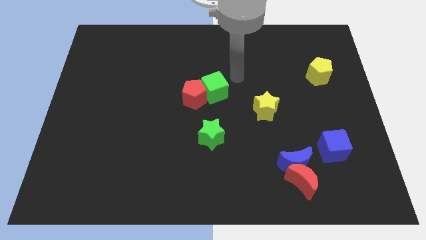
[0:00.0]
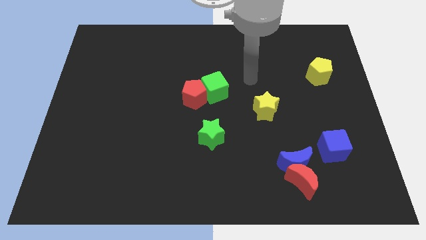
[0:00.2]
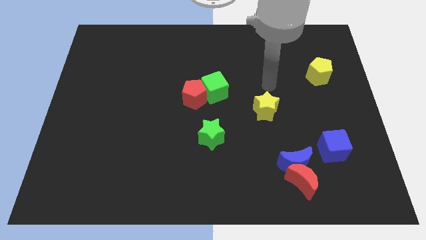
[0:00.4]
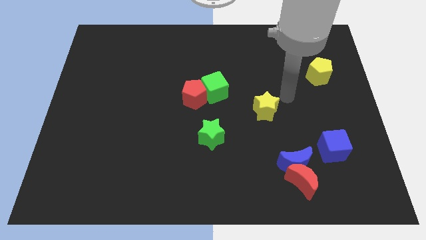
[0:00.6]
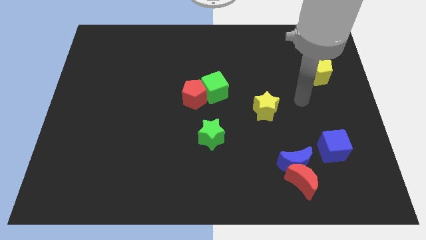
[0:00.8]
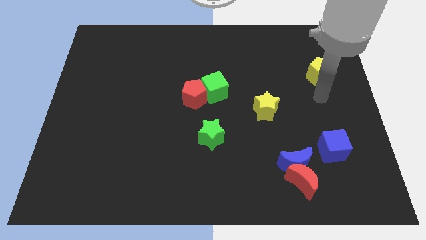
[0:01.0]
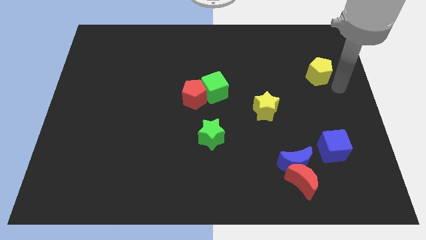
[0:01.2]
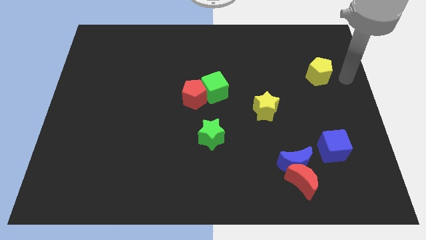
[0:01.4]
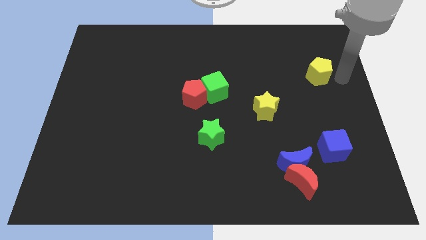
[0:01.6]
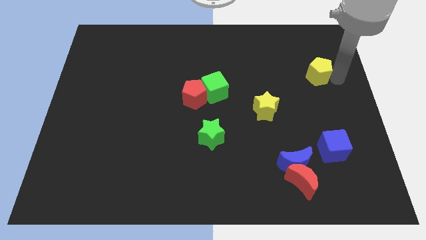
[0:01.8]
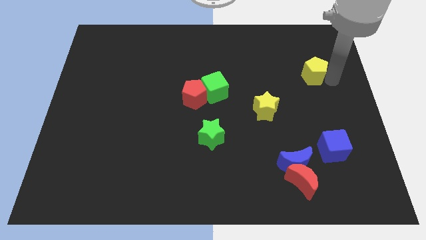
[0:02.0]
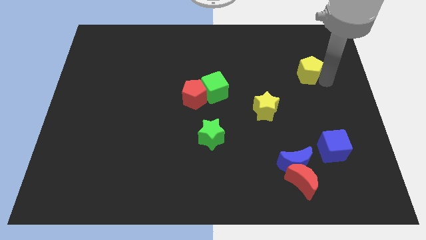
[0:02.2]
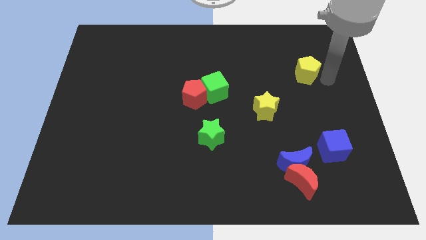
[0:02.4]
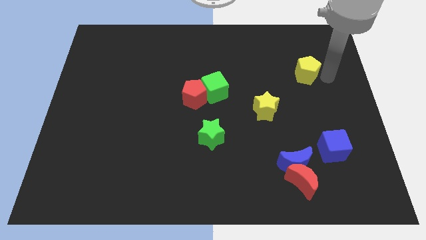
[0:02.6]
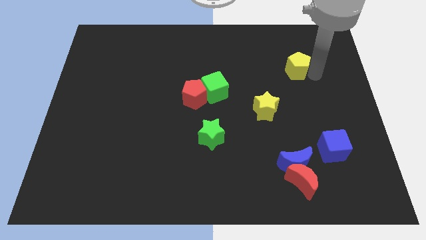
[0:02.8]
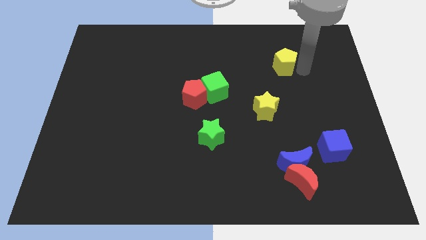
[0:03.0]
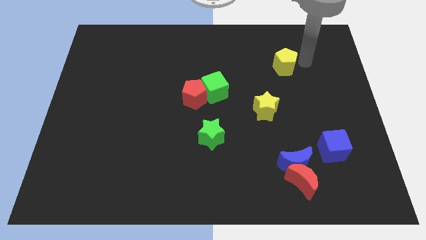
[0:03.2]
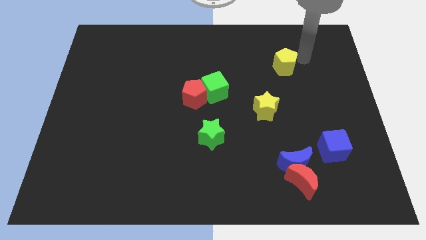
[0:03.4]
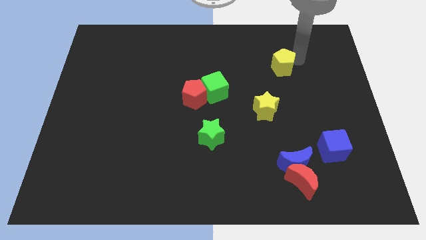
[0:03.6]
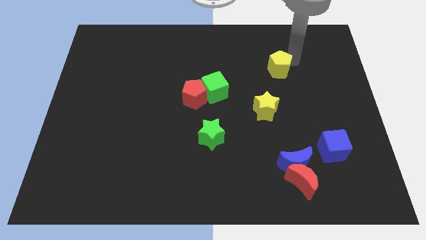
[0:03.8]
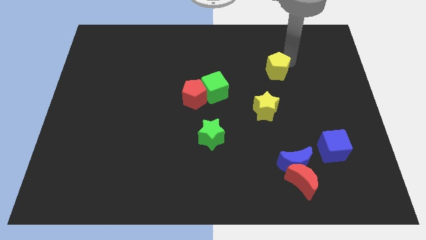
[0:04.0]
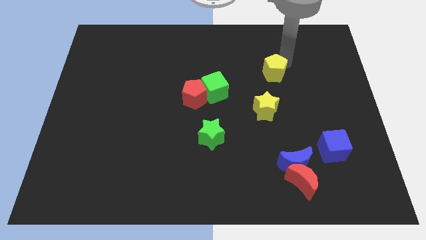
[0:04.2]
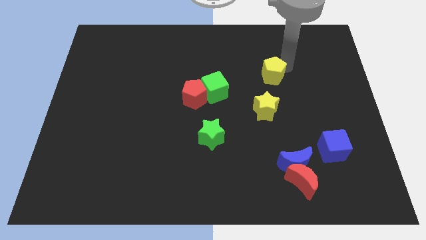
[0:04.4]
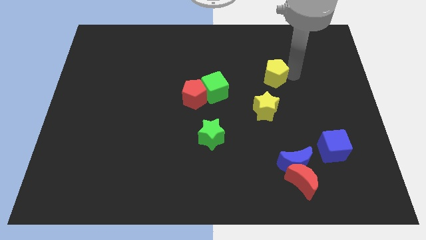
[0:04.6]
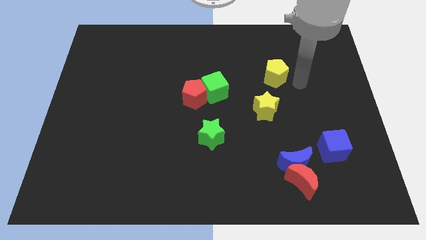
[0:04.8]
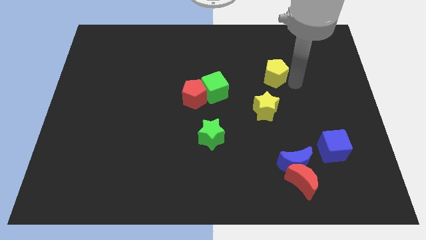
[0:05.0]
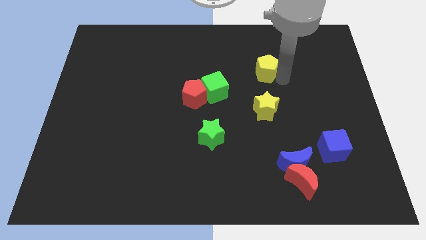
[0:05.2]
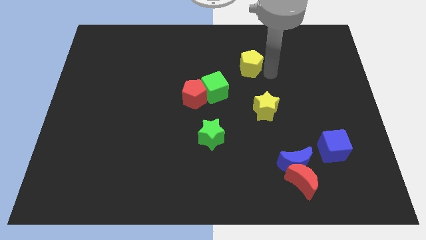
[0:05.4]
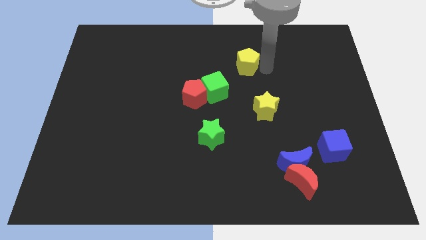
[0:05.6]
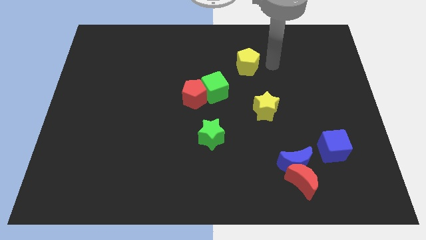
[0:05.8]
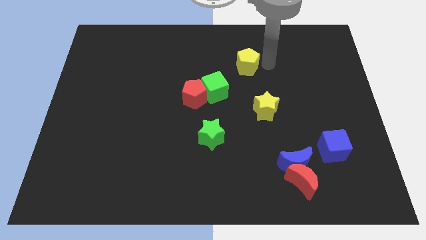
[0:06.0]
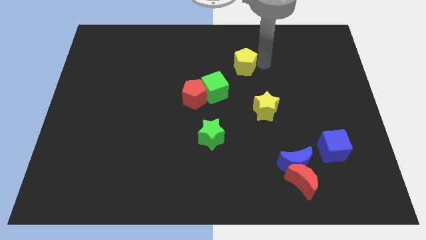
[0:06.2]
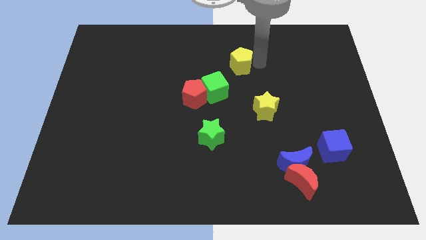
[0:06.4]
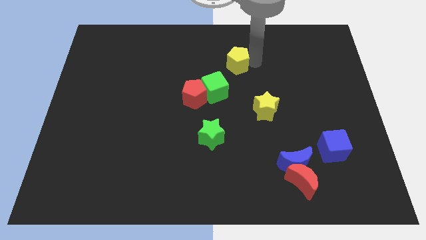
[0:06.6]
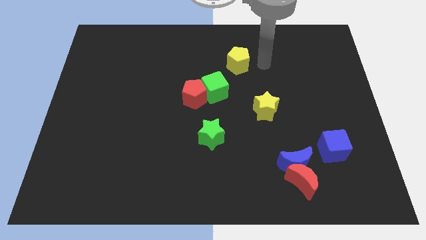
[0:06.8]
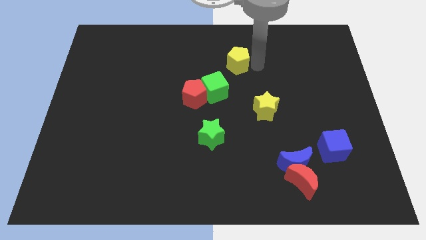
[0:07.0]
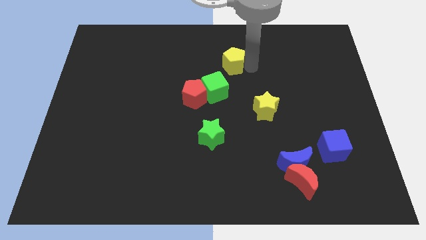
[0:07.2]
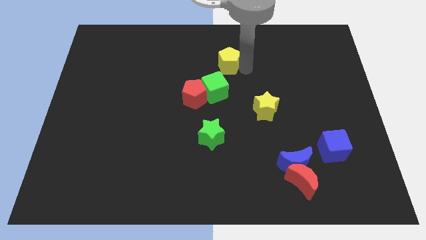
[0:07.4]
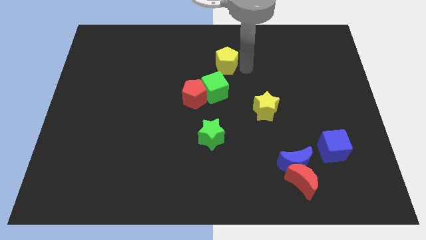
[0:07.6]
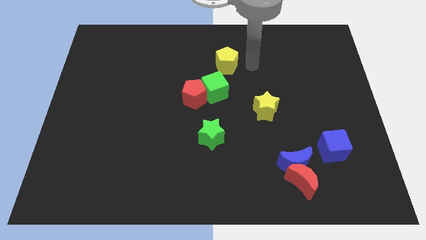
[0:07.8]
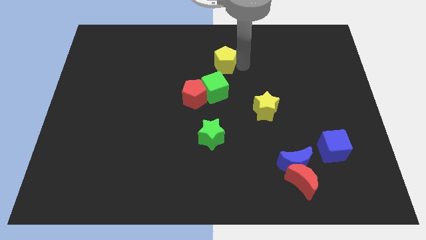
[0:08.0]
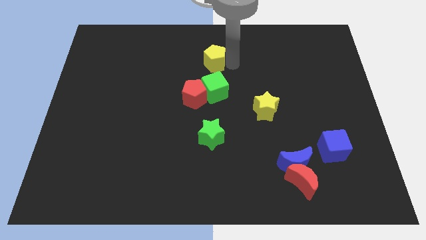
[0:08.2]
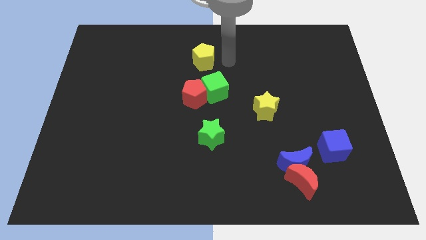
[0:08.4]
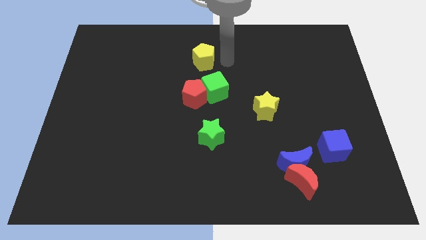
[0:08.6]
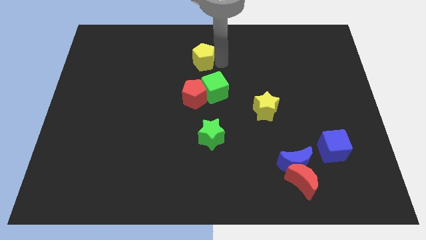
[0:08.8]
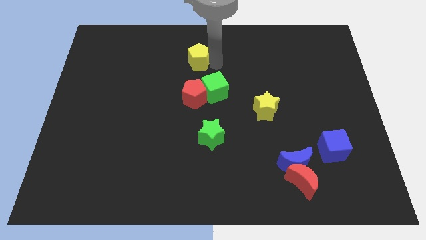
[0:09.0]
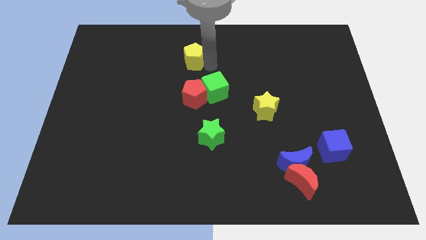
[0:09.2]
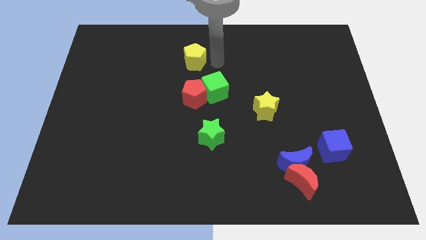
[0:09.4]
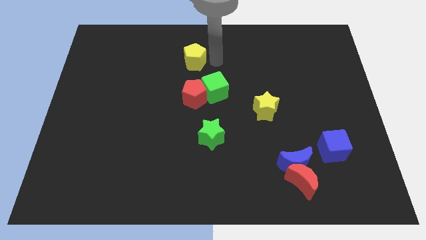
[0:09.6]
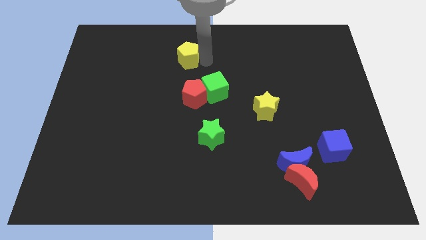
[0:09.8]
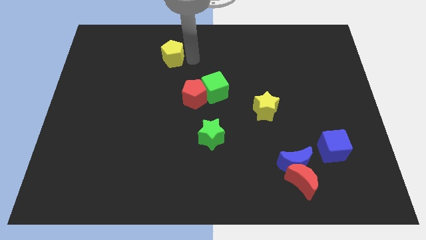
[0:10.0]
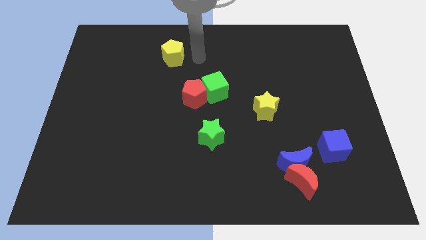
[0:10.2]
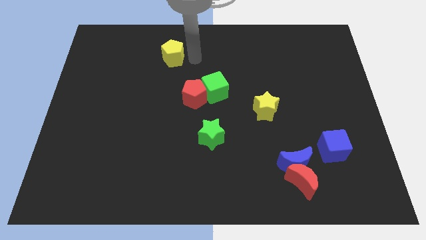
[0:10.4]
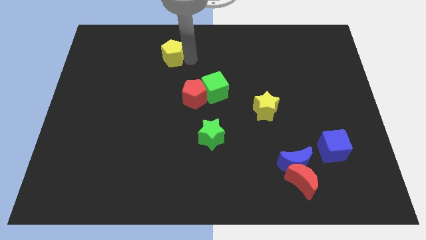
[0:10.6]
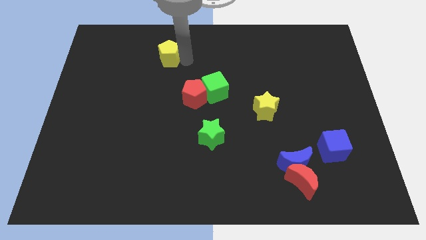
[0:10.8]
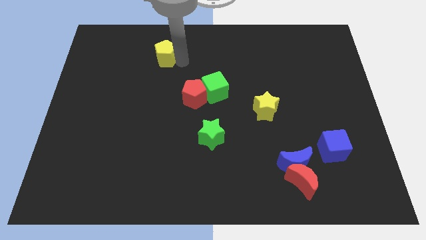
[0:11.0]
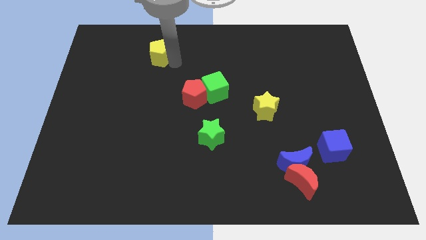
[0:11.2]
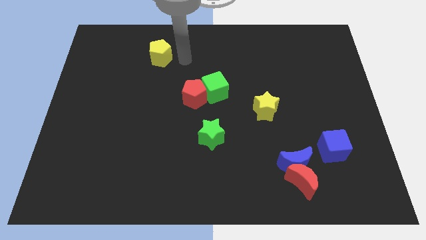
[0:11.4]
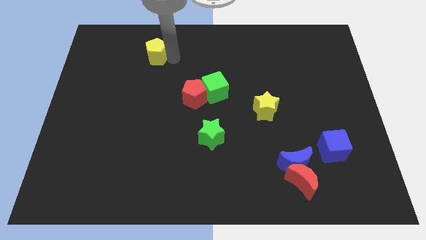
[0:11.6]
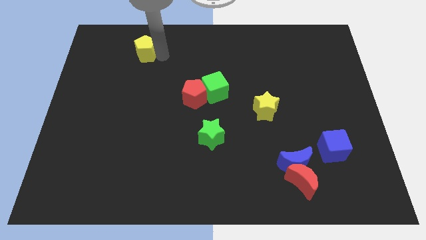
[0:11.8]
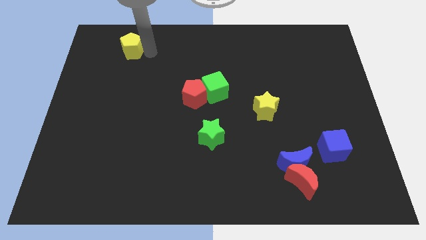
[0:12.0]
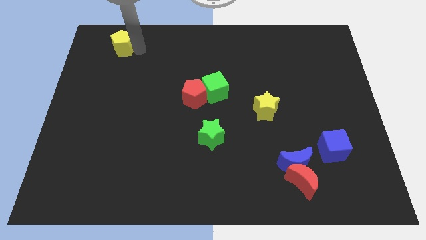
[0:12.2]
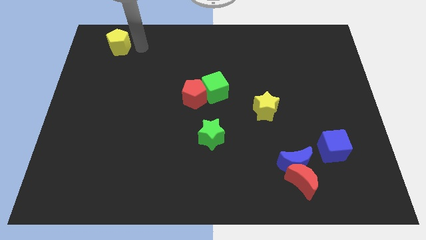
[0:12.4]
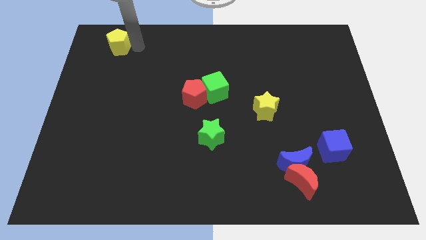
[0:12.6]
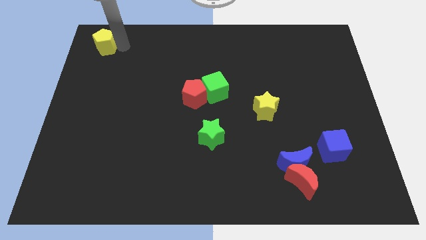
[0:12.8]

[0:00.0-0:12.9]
put the yellow pentagon to the top left
